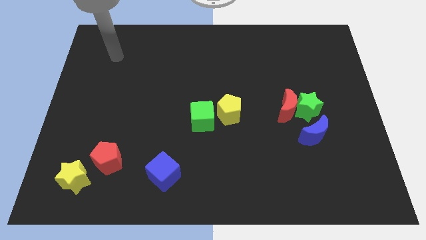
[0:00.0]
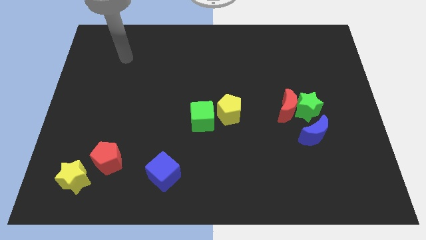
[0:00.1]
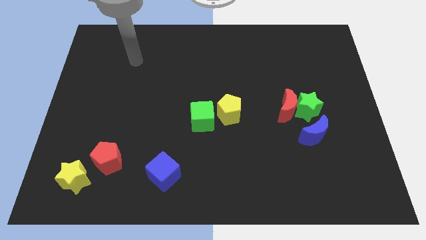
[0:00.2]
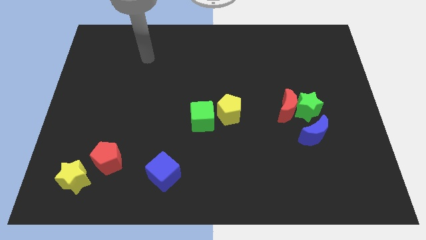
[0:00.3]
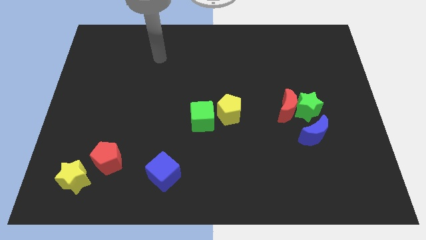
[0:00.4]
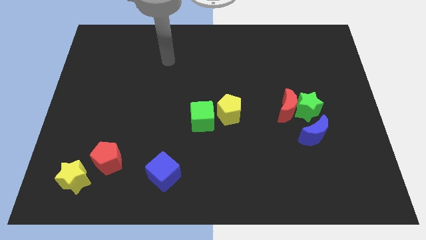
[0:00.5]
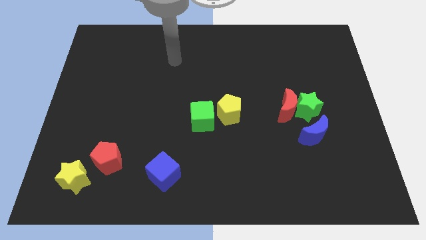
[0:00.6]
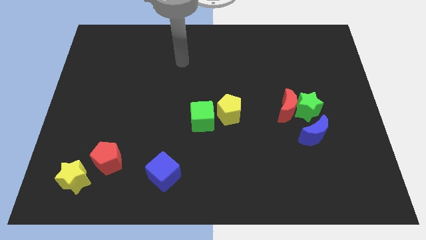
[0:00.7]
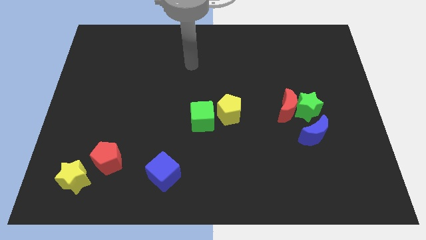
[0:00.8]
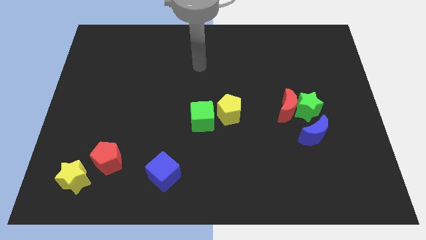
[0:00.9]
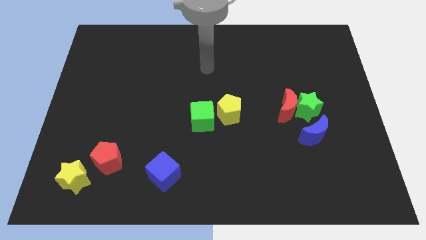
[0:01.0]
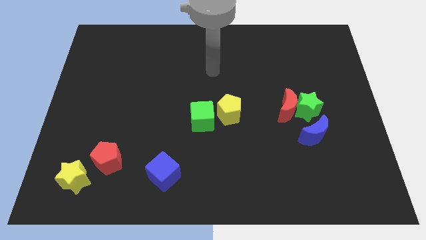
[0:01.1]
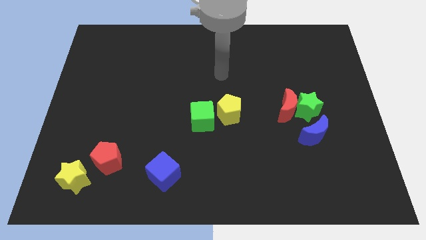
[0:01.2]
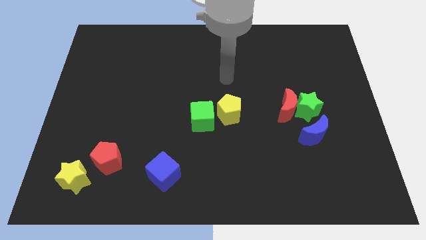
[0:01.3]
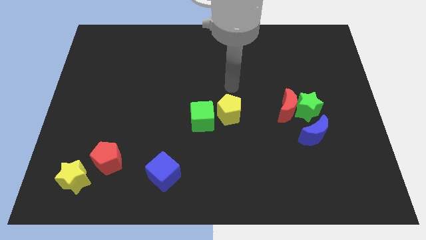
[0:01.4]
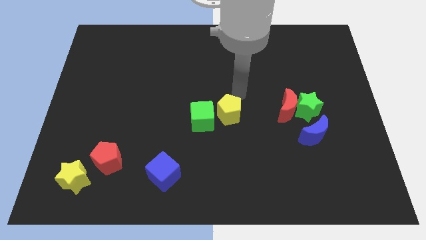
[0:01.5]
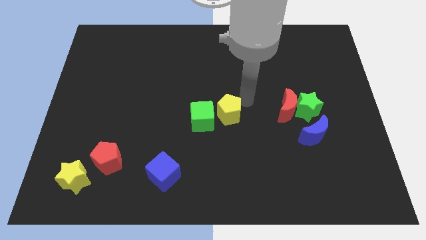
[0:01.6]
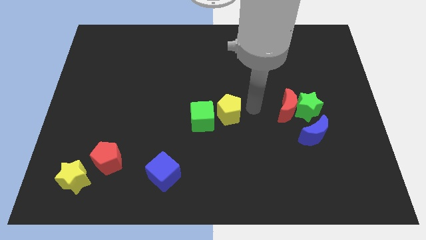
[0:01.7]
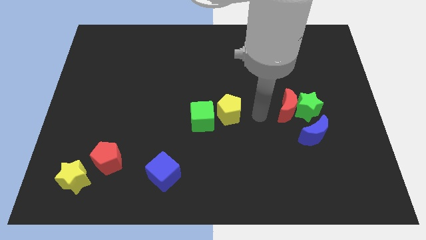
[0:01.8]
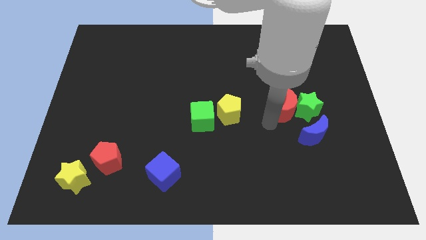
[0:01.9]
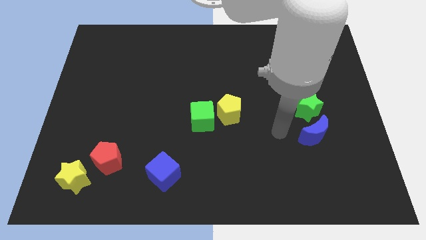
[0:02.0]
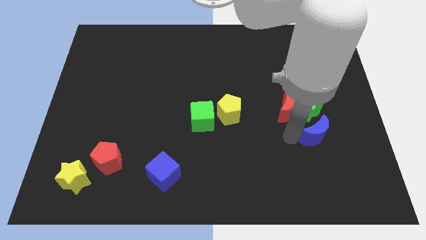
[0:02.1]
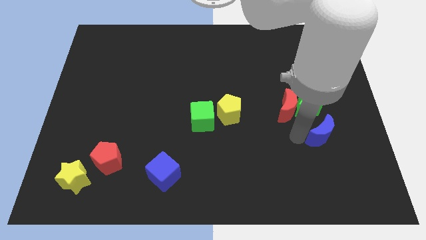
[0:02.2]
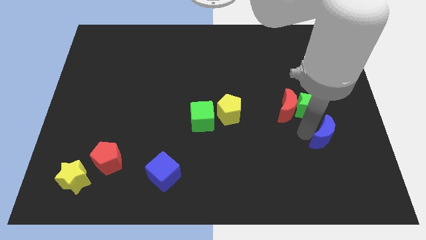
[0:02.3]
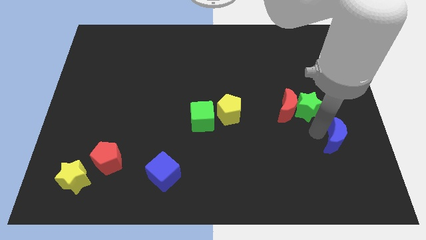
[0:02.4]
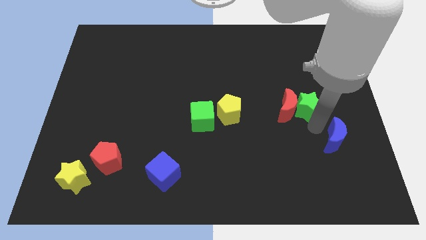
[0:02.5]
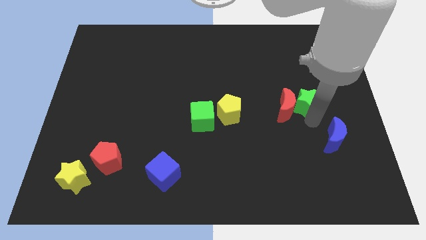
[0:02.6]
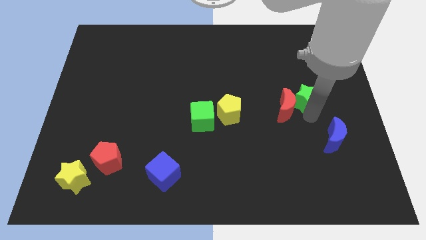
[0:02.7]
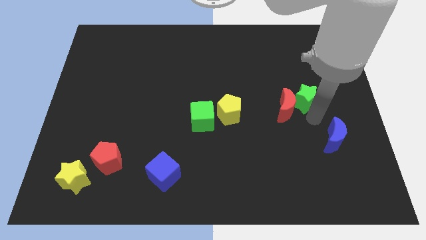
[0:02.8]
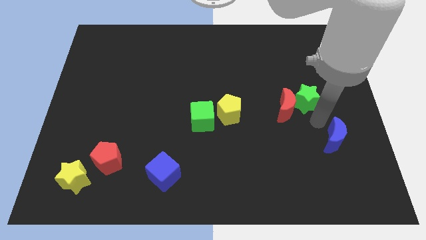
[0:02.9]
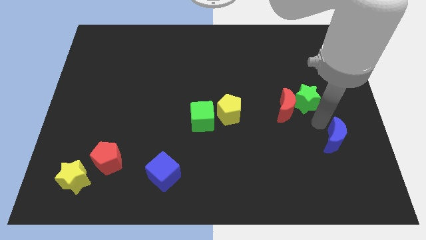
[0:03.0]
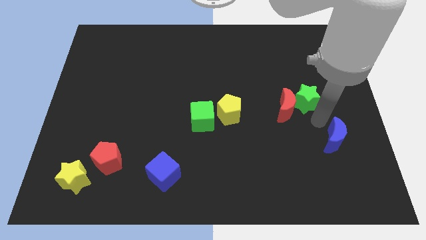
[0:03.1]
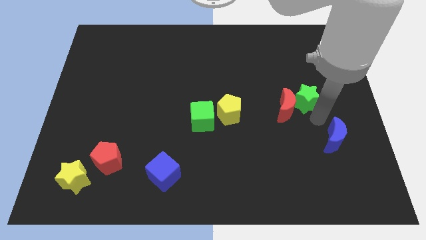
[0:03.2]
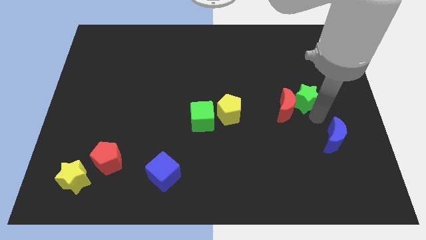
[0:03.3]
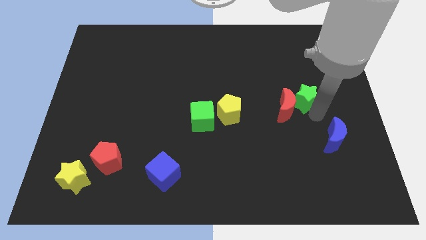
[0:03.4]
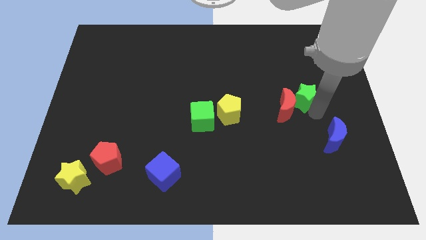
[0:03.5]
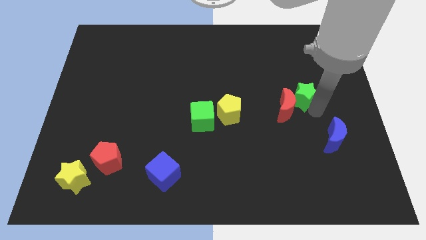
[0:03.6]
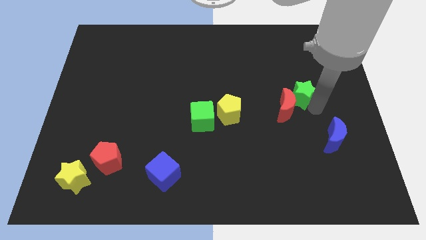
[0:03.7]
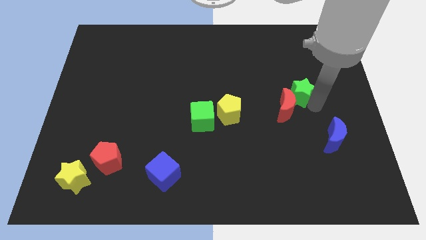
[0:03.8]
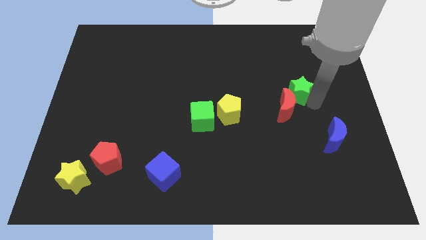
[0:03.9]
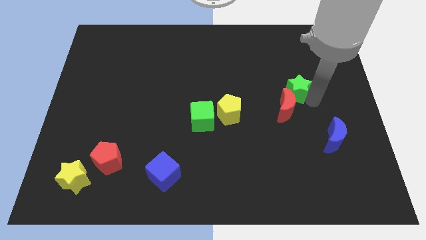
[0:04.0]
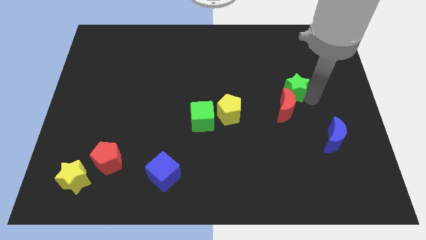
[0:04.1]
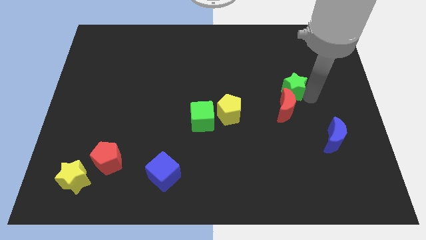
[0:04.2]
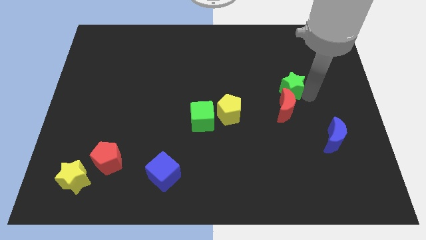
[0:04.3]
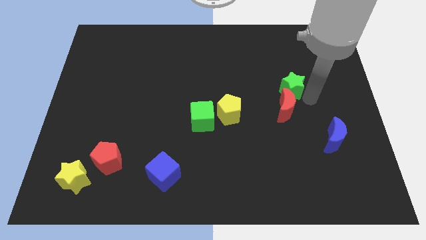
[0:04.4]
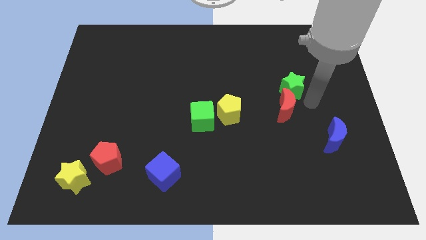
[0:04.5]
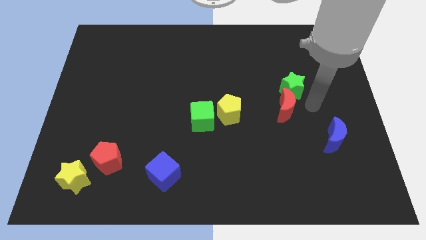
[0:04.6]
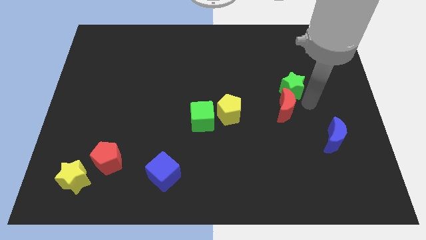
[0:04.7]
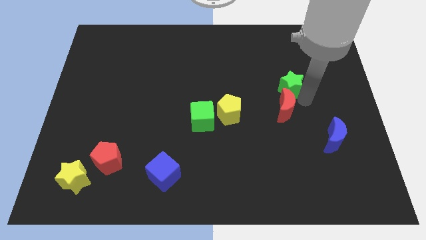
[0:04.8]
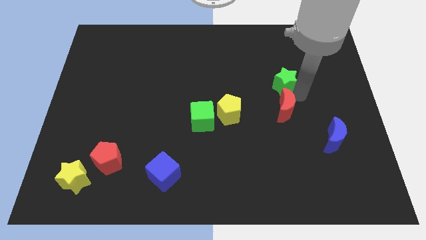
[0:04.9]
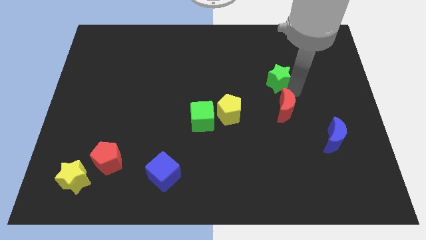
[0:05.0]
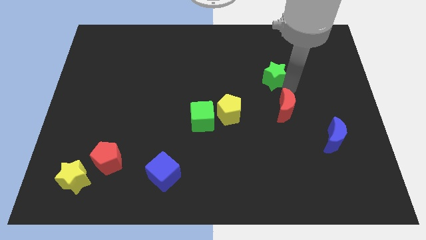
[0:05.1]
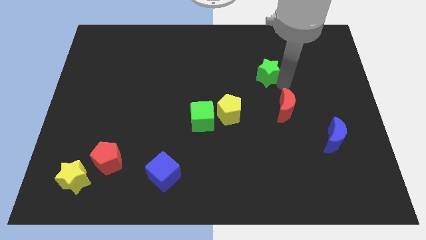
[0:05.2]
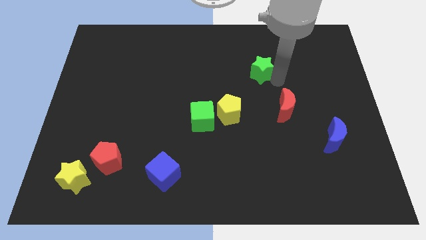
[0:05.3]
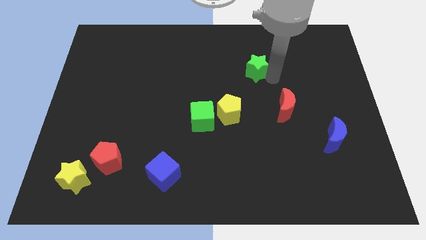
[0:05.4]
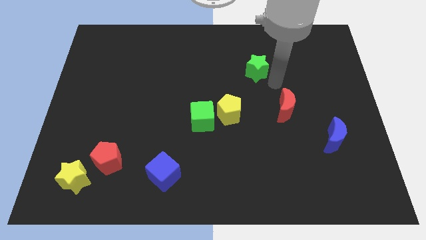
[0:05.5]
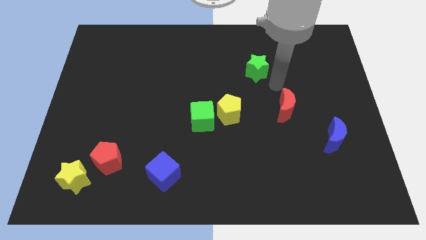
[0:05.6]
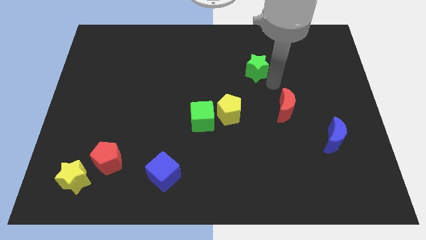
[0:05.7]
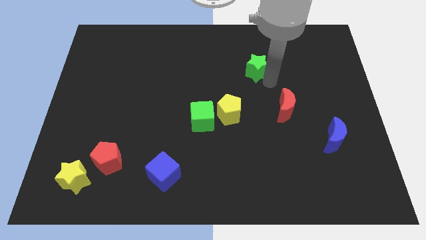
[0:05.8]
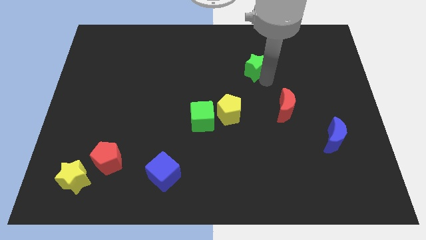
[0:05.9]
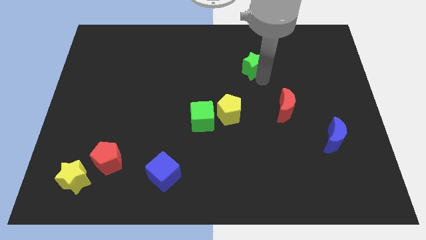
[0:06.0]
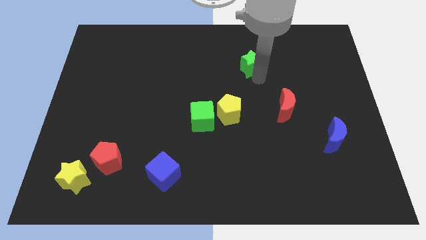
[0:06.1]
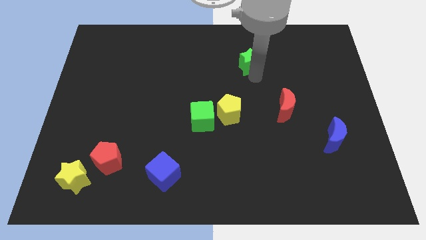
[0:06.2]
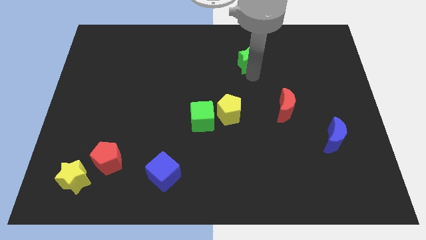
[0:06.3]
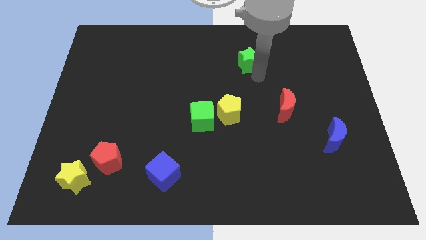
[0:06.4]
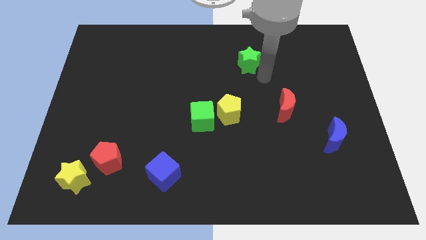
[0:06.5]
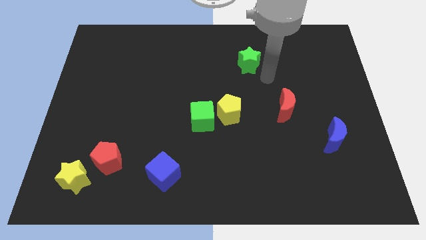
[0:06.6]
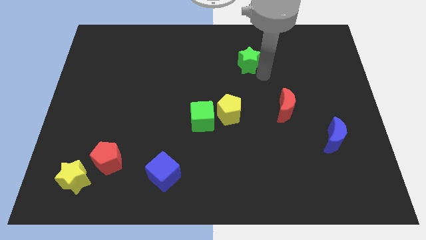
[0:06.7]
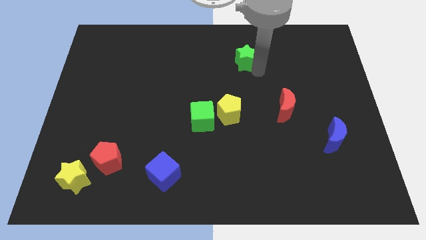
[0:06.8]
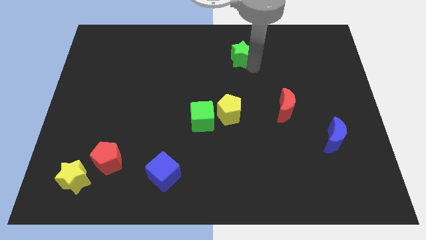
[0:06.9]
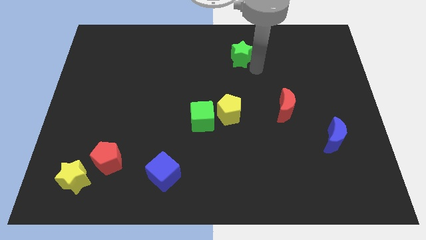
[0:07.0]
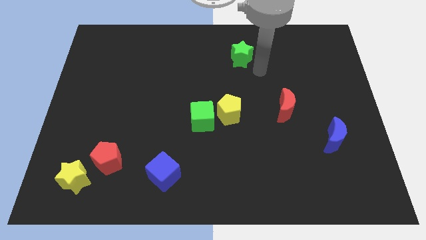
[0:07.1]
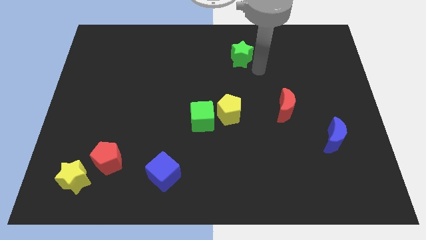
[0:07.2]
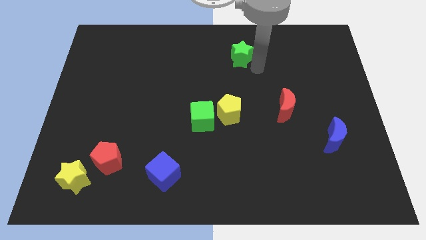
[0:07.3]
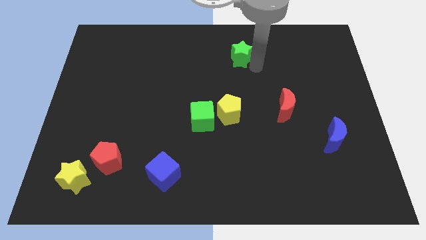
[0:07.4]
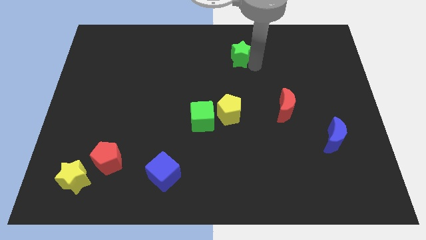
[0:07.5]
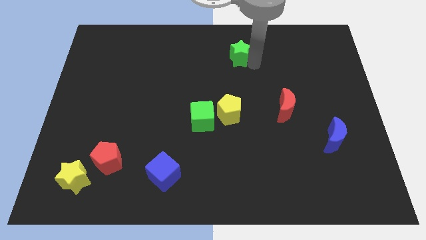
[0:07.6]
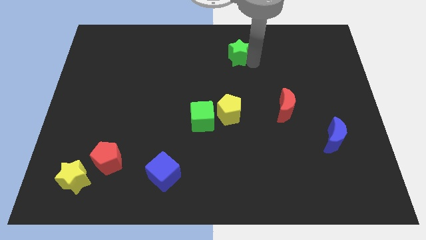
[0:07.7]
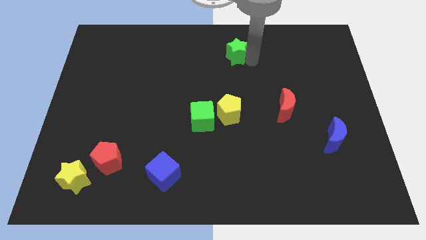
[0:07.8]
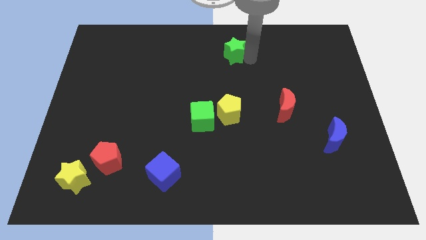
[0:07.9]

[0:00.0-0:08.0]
slide the green star to the top side
